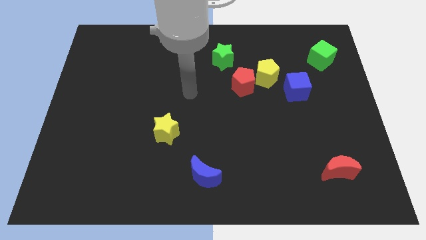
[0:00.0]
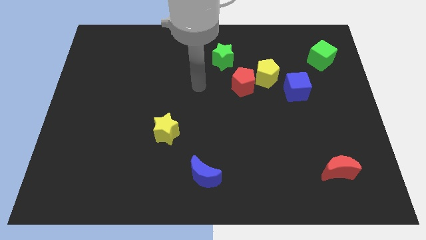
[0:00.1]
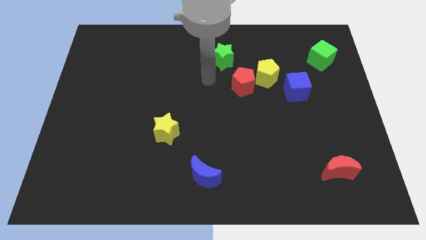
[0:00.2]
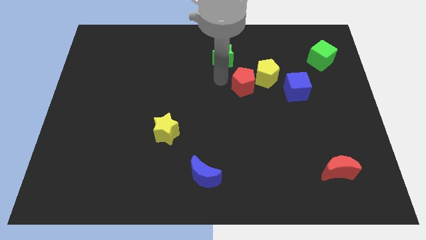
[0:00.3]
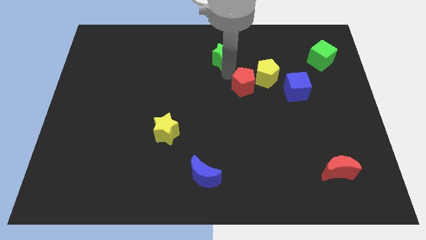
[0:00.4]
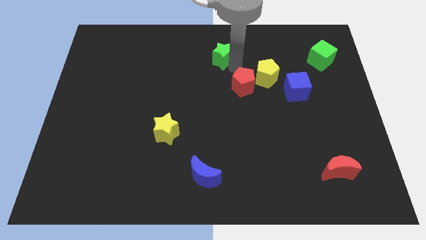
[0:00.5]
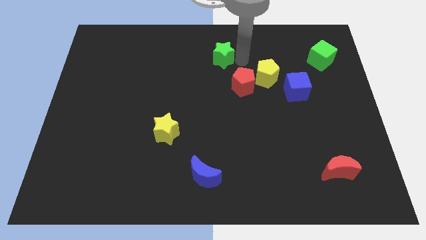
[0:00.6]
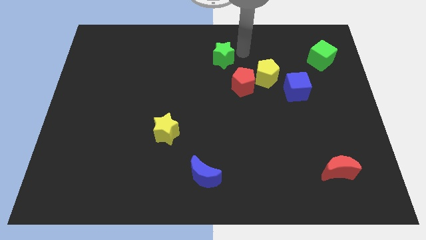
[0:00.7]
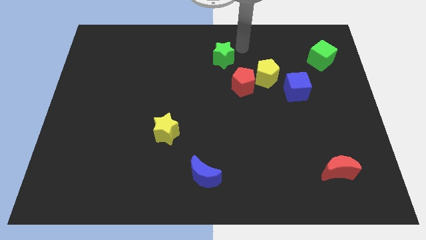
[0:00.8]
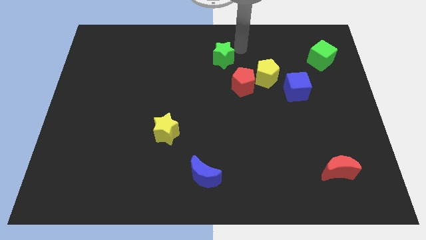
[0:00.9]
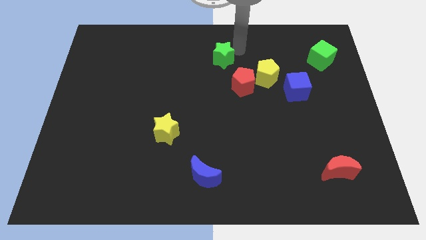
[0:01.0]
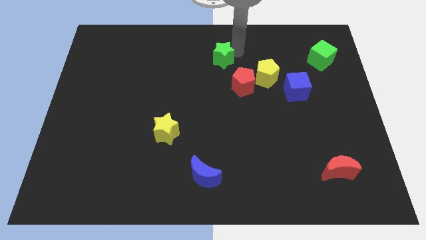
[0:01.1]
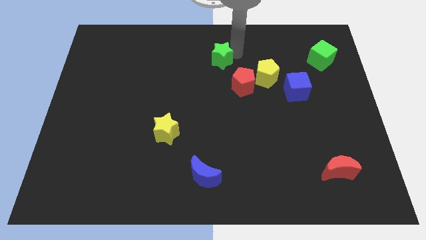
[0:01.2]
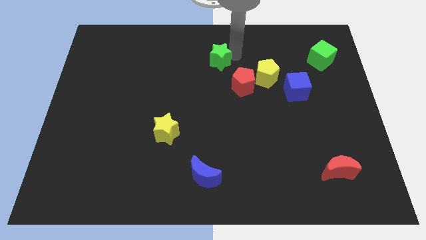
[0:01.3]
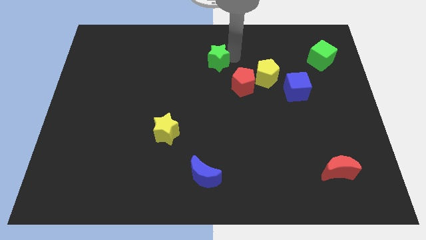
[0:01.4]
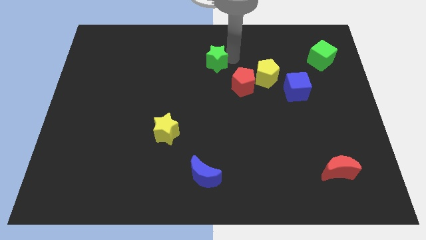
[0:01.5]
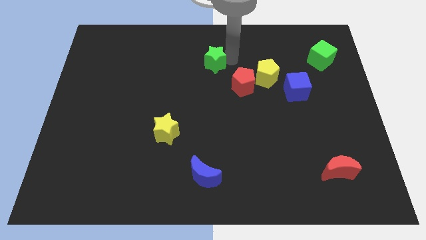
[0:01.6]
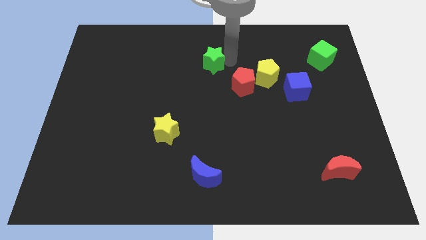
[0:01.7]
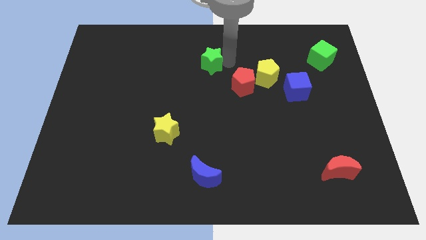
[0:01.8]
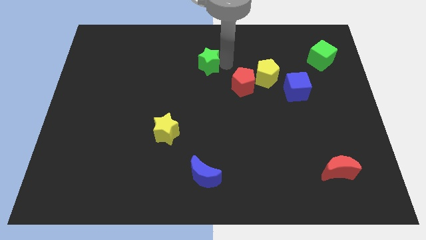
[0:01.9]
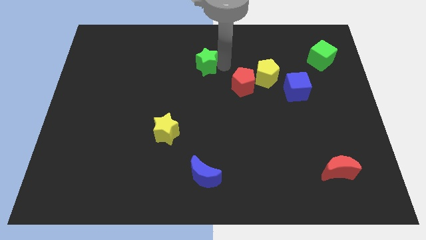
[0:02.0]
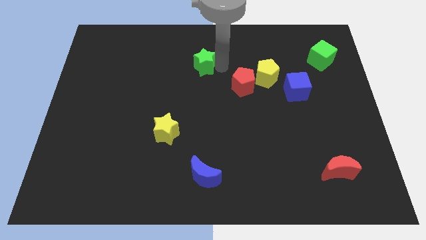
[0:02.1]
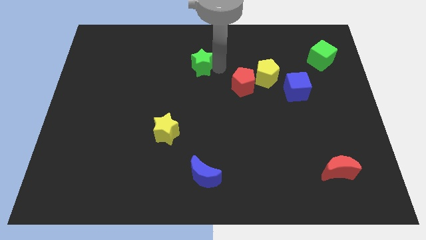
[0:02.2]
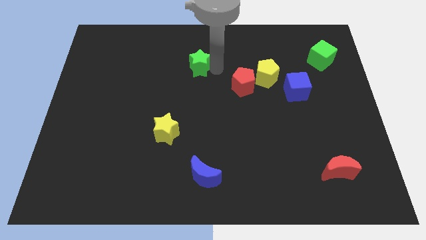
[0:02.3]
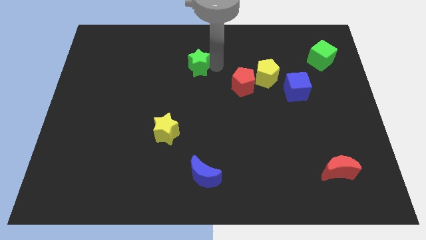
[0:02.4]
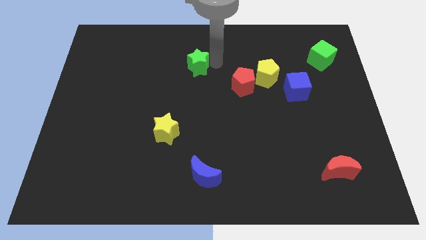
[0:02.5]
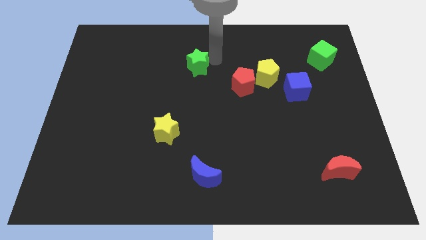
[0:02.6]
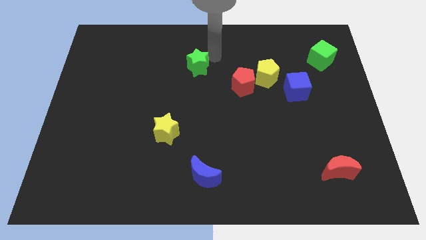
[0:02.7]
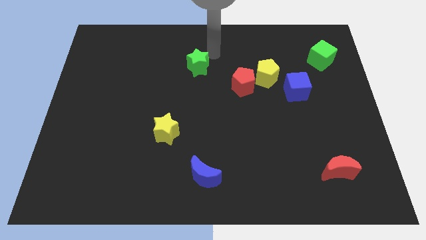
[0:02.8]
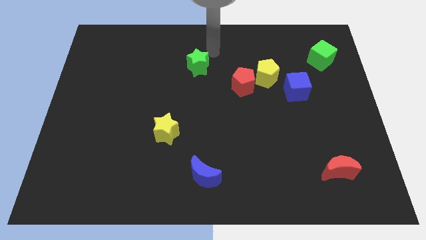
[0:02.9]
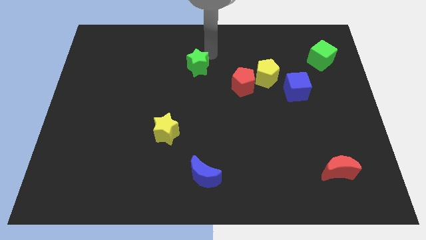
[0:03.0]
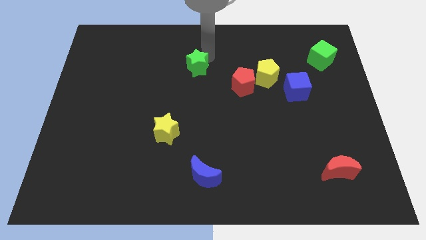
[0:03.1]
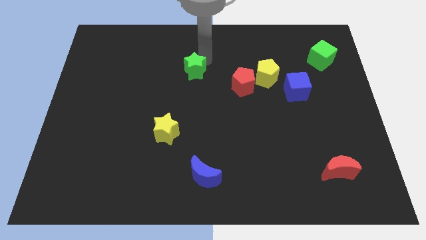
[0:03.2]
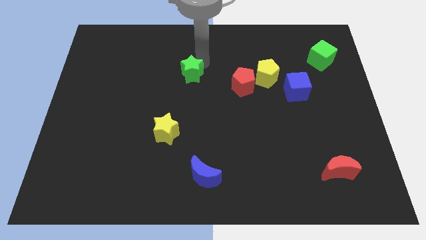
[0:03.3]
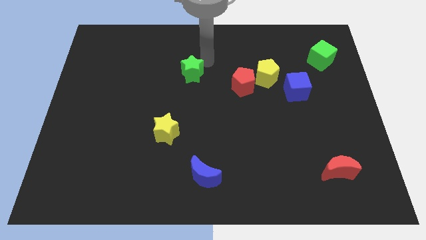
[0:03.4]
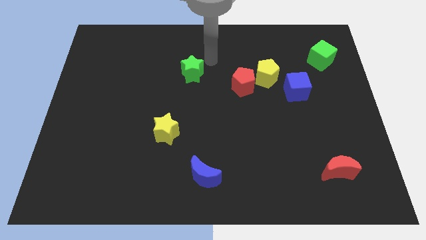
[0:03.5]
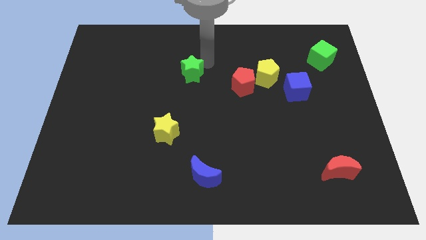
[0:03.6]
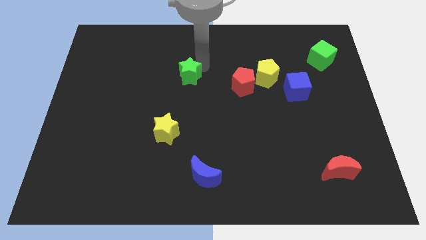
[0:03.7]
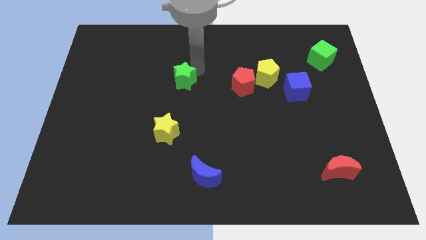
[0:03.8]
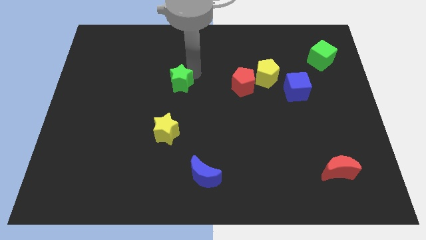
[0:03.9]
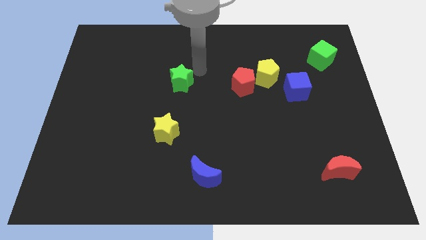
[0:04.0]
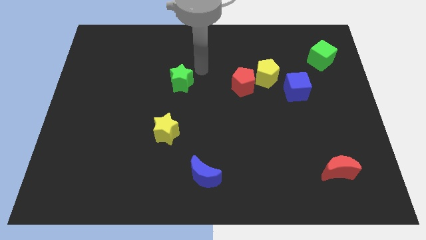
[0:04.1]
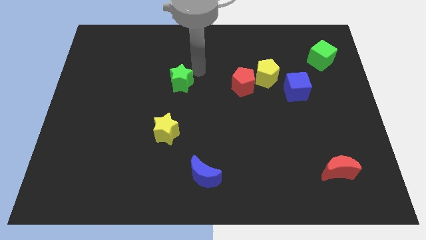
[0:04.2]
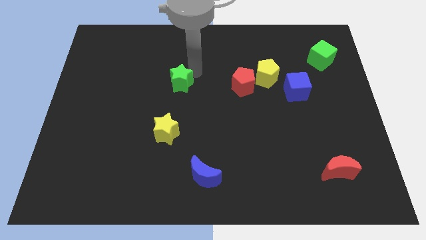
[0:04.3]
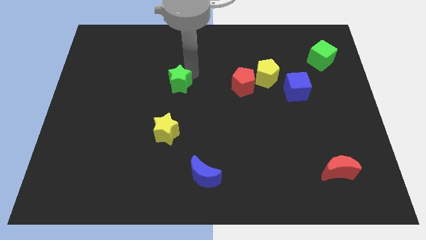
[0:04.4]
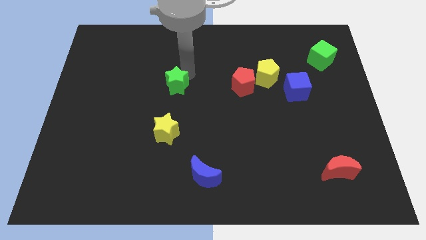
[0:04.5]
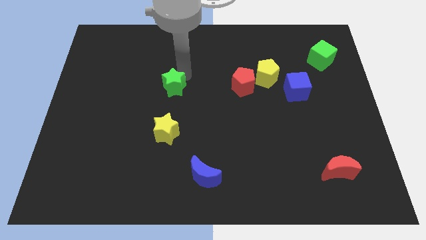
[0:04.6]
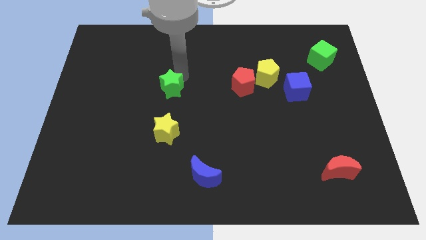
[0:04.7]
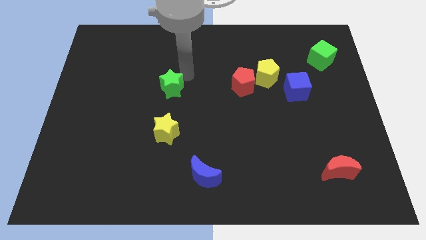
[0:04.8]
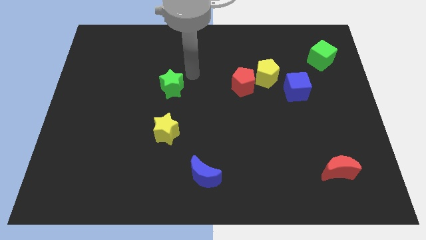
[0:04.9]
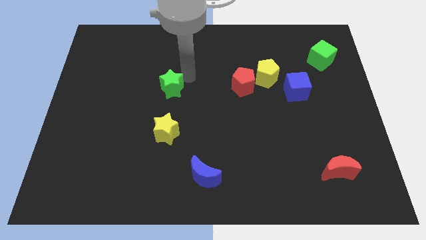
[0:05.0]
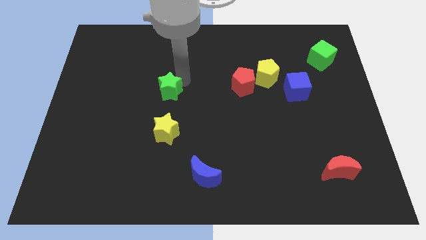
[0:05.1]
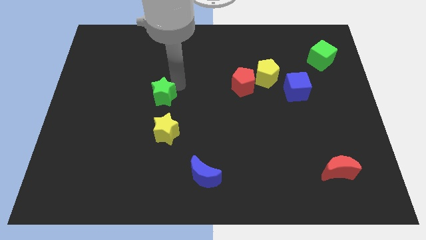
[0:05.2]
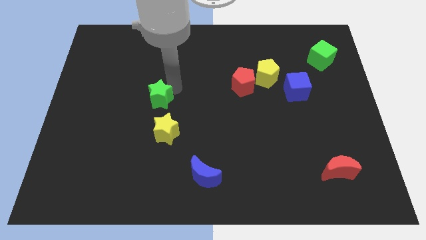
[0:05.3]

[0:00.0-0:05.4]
move the green star downwards and left

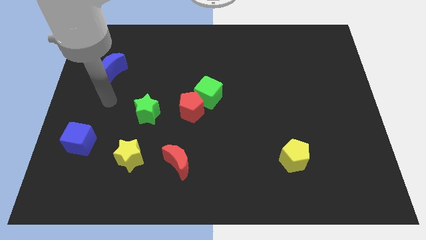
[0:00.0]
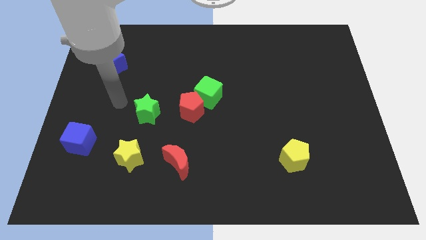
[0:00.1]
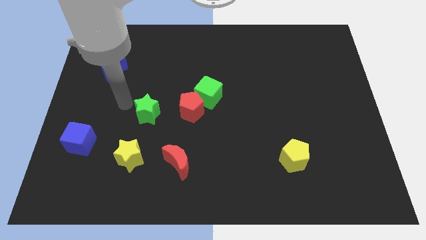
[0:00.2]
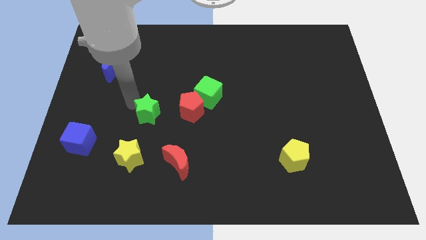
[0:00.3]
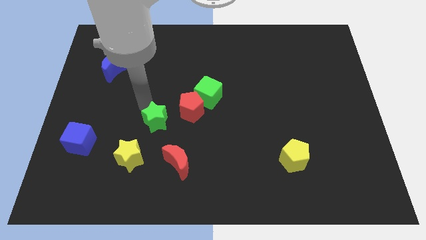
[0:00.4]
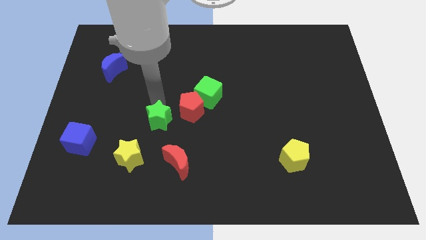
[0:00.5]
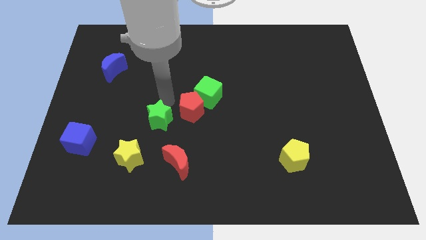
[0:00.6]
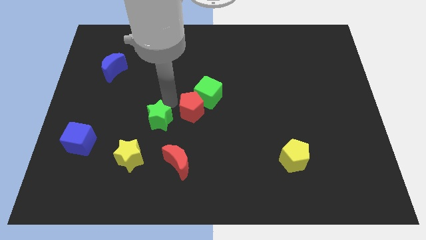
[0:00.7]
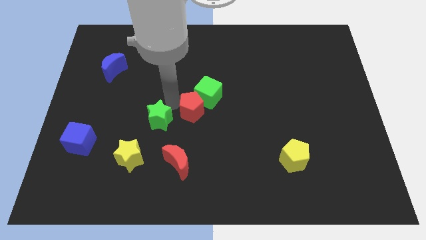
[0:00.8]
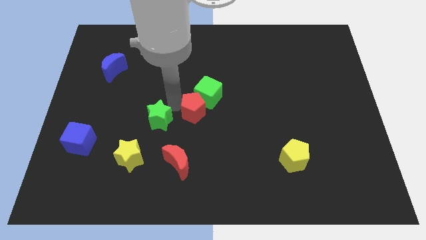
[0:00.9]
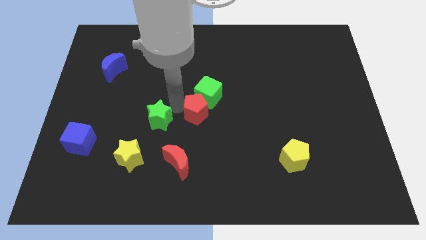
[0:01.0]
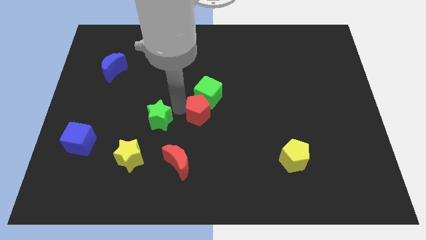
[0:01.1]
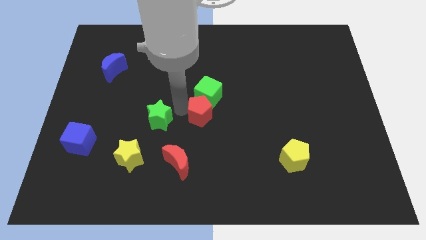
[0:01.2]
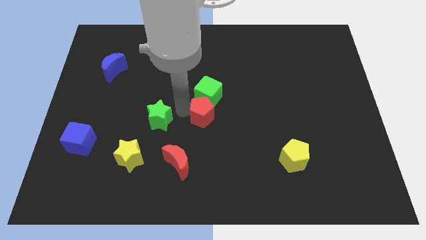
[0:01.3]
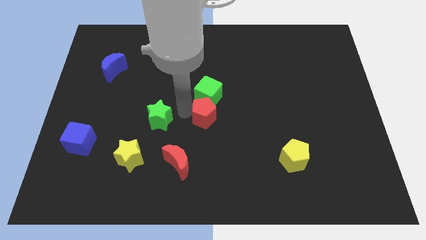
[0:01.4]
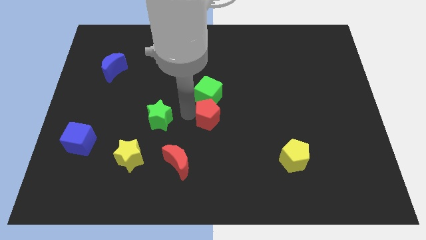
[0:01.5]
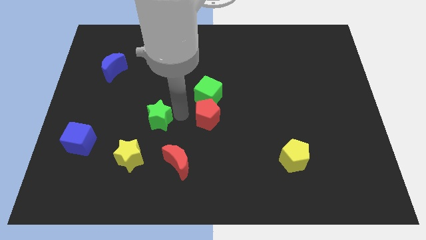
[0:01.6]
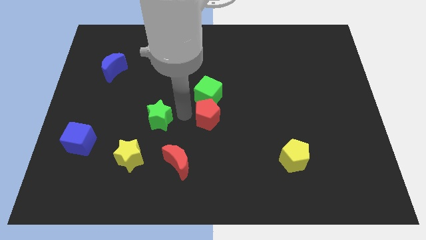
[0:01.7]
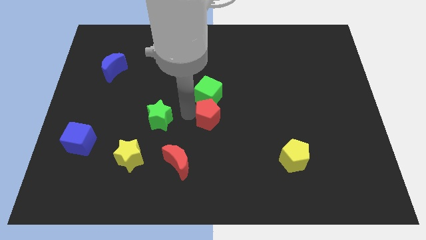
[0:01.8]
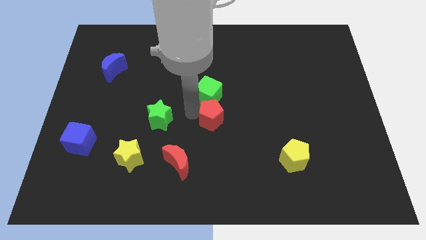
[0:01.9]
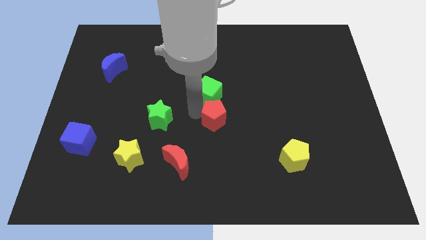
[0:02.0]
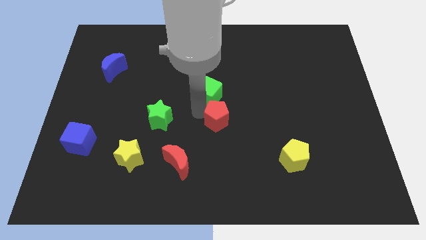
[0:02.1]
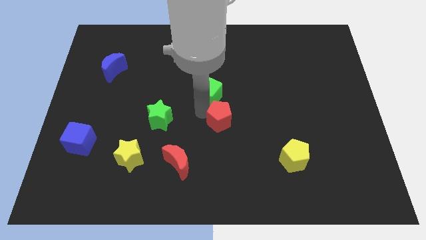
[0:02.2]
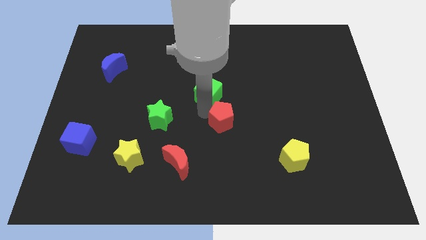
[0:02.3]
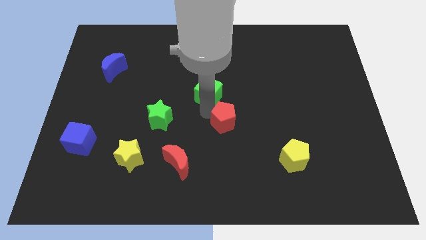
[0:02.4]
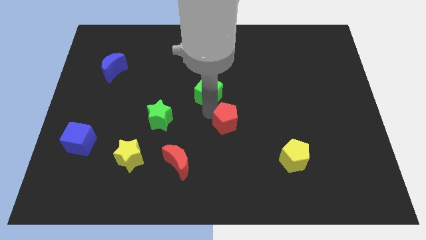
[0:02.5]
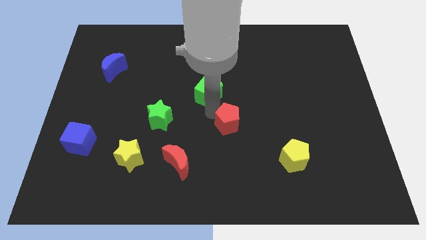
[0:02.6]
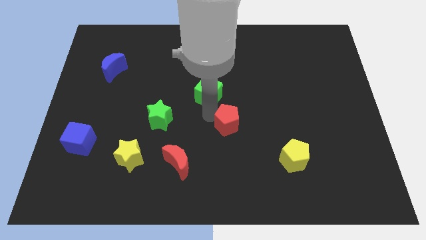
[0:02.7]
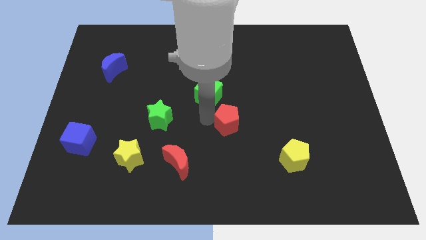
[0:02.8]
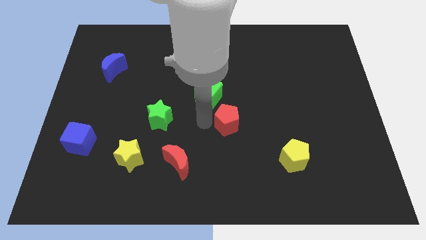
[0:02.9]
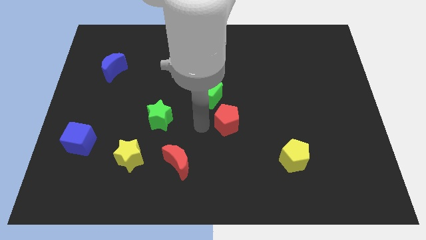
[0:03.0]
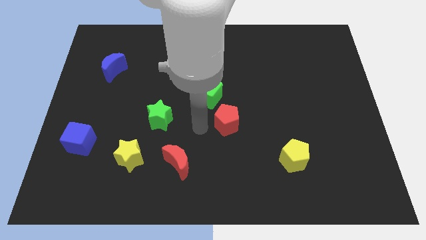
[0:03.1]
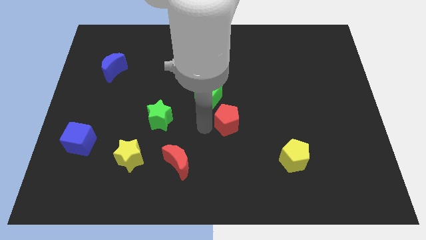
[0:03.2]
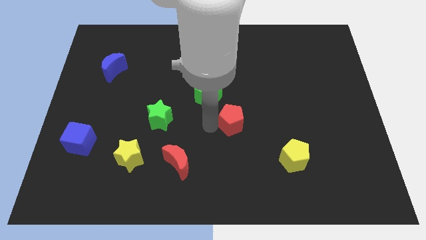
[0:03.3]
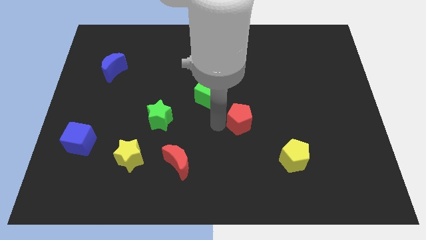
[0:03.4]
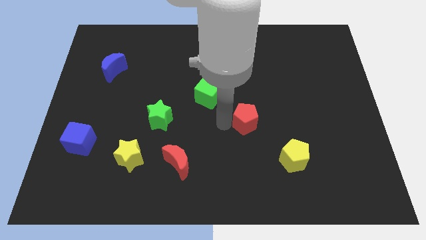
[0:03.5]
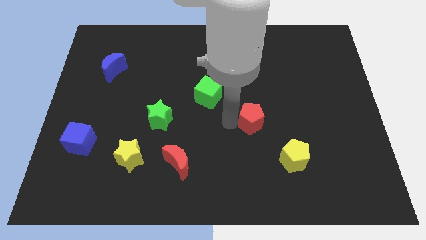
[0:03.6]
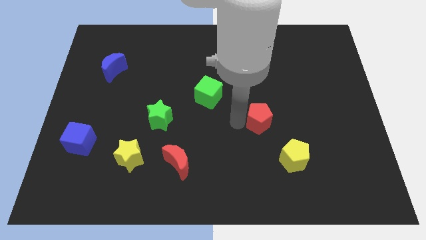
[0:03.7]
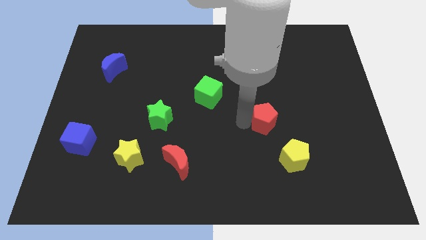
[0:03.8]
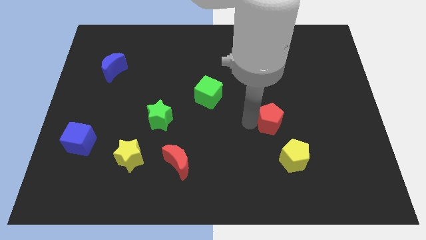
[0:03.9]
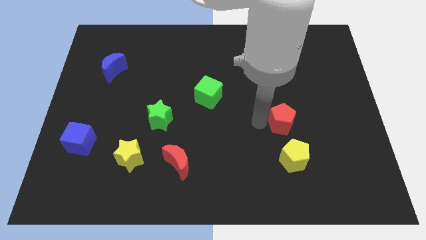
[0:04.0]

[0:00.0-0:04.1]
move the red pentagon to the right
